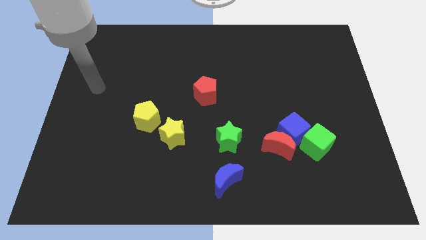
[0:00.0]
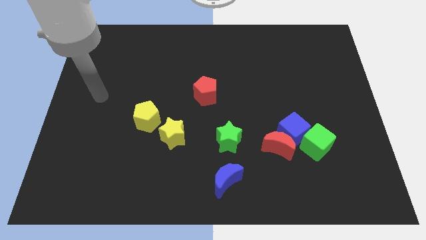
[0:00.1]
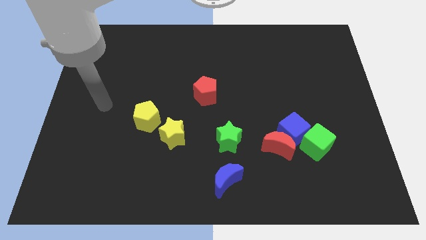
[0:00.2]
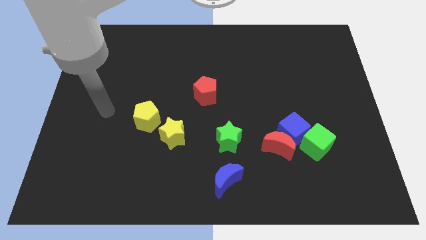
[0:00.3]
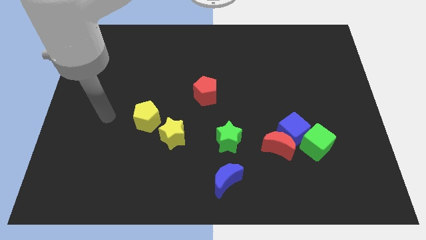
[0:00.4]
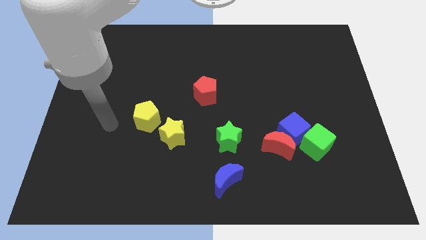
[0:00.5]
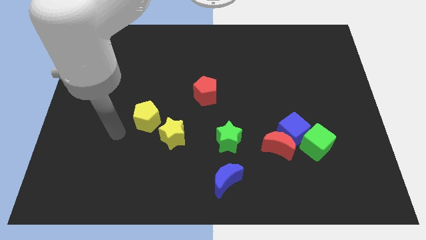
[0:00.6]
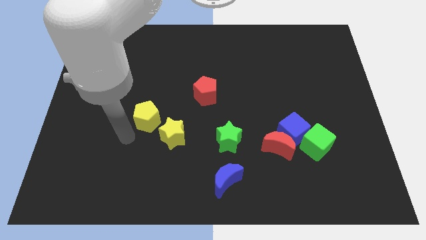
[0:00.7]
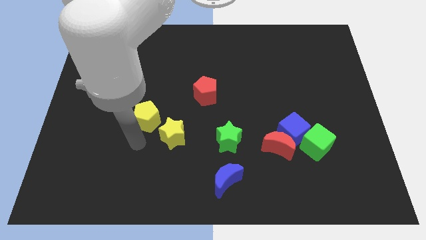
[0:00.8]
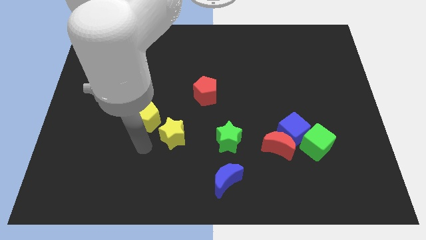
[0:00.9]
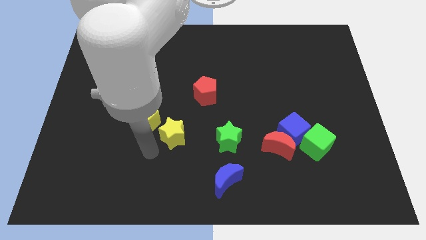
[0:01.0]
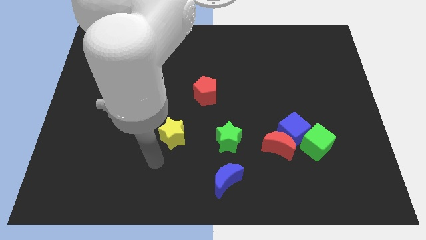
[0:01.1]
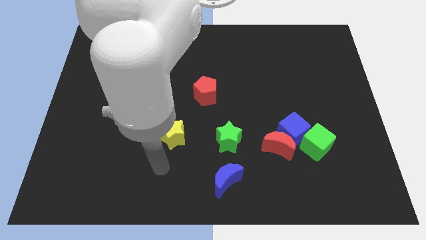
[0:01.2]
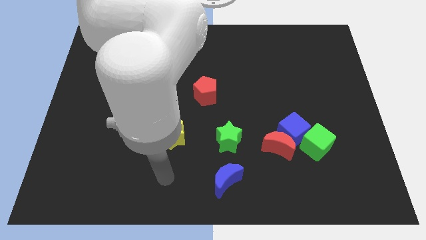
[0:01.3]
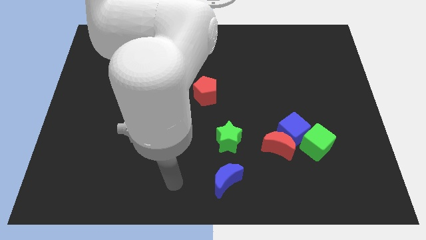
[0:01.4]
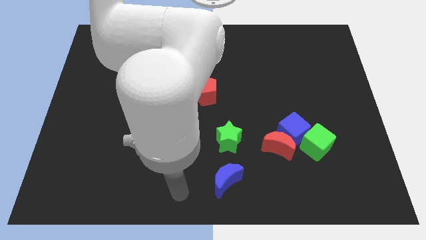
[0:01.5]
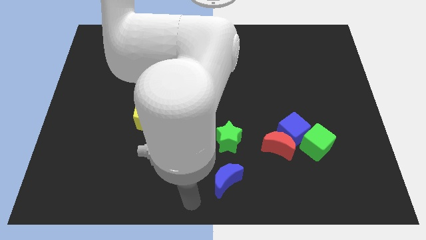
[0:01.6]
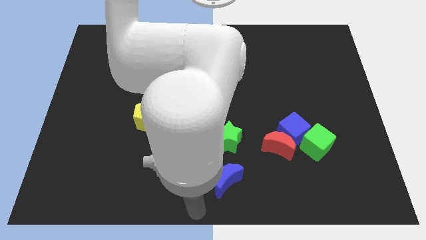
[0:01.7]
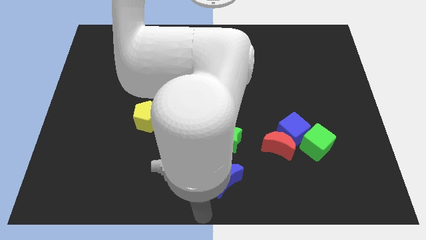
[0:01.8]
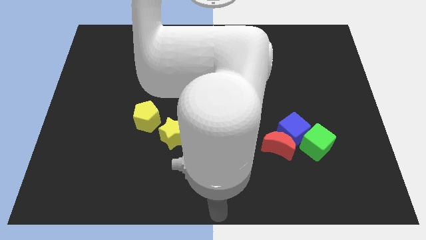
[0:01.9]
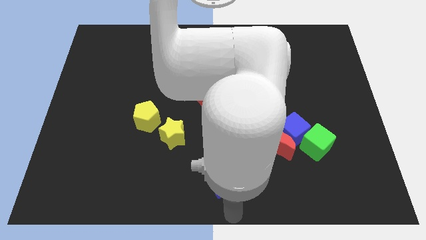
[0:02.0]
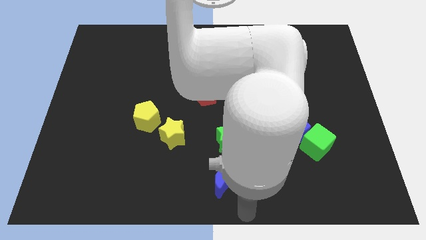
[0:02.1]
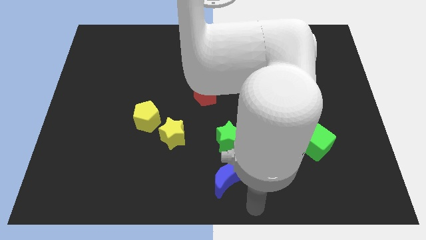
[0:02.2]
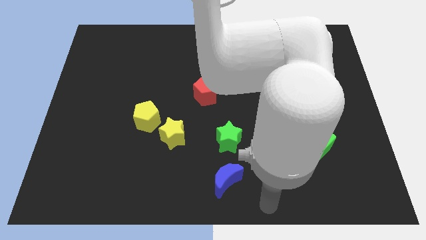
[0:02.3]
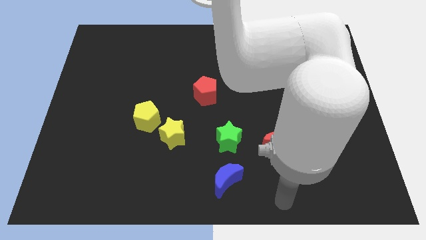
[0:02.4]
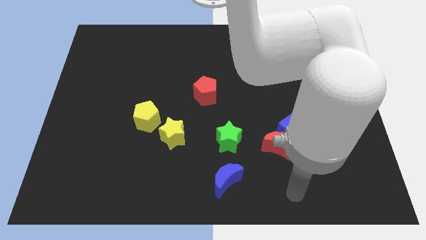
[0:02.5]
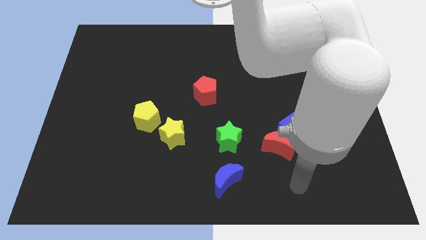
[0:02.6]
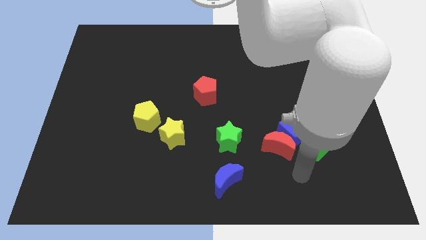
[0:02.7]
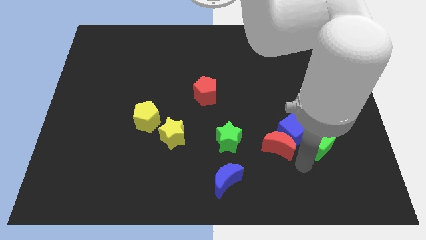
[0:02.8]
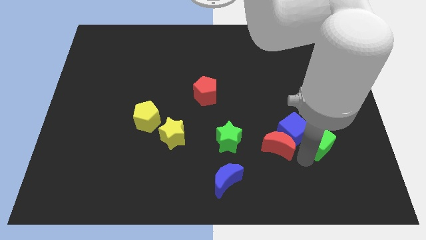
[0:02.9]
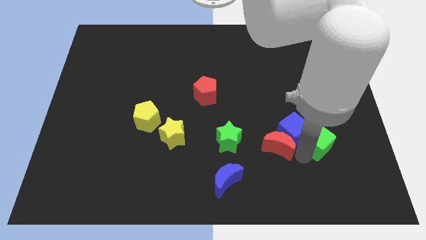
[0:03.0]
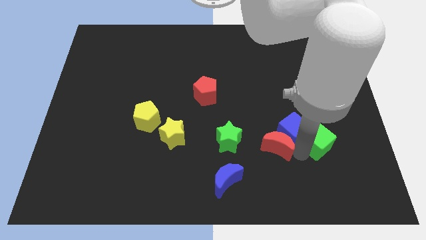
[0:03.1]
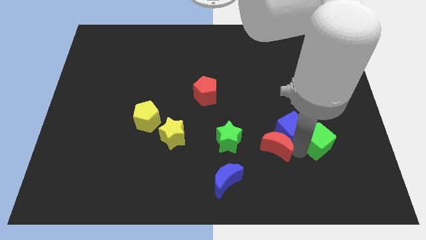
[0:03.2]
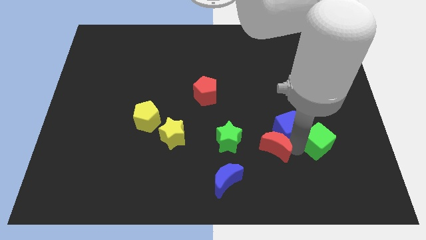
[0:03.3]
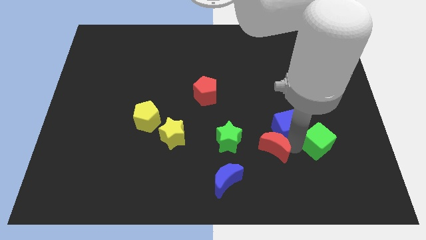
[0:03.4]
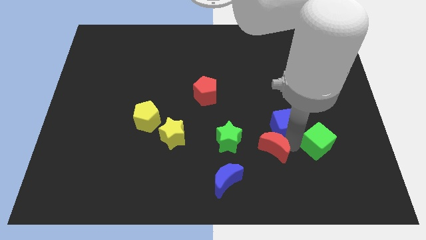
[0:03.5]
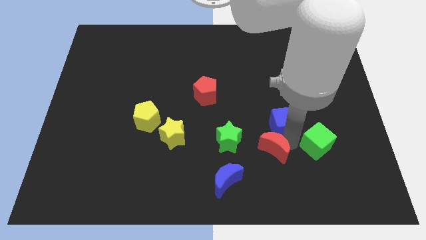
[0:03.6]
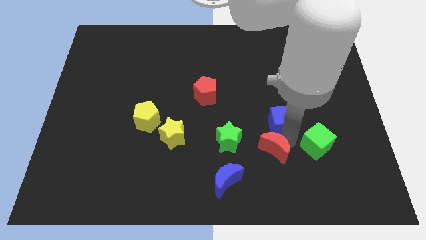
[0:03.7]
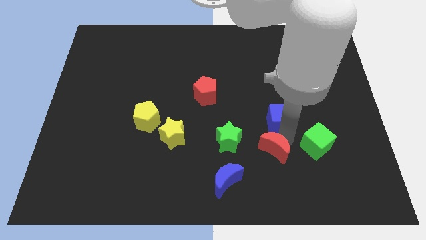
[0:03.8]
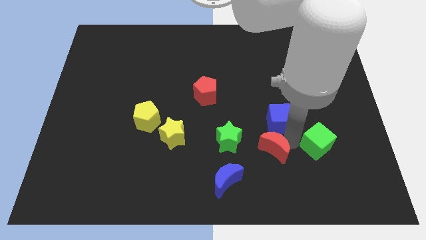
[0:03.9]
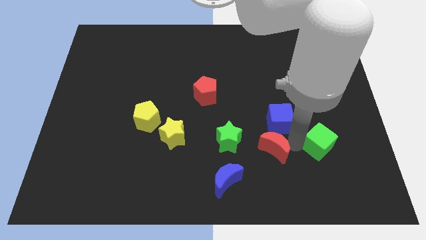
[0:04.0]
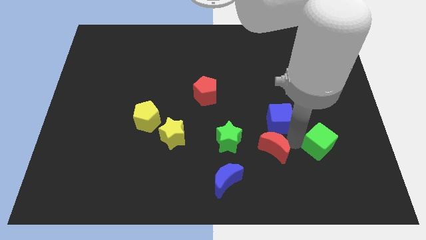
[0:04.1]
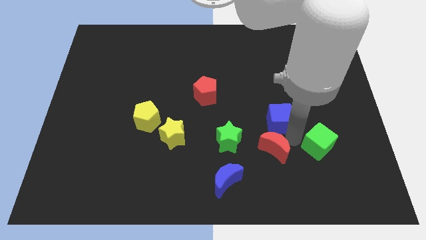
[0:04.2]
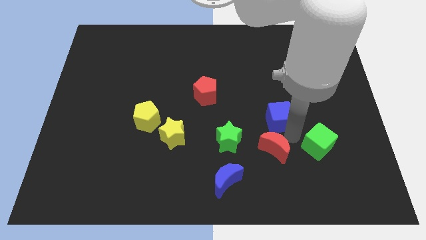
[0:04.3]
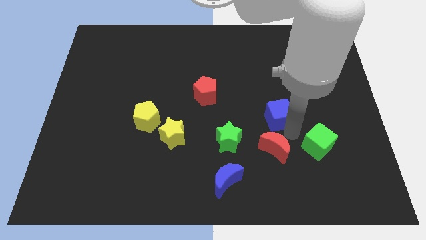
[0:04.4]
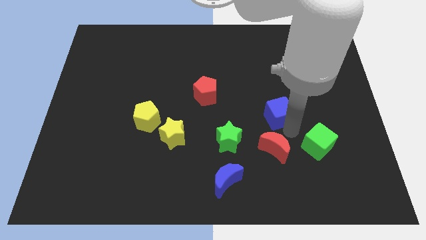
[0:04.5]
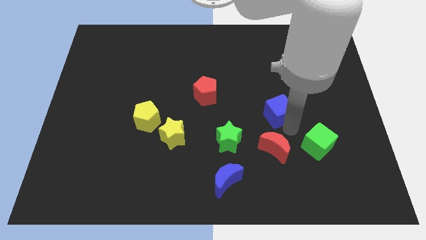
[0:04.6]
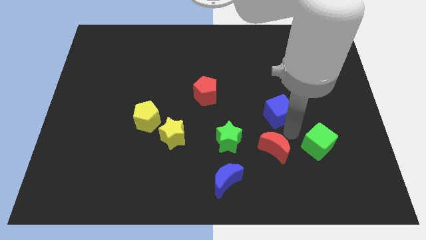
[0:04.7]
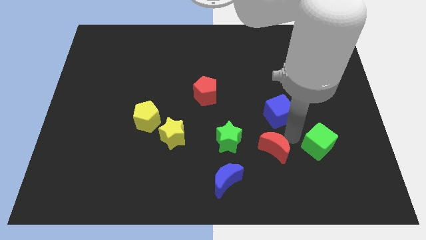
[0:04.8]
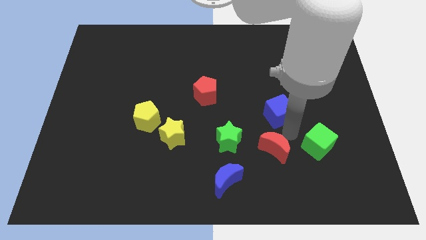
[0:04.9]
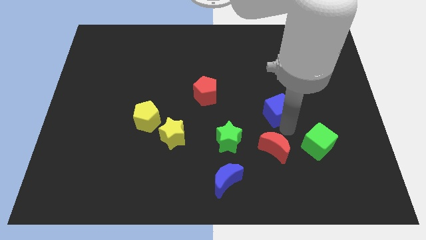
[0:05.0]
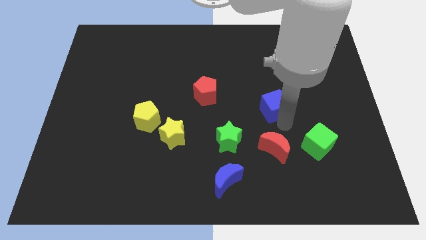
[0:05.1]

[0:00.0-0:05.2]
move the blue cube away from the red moon and green cube

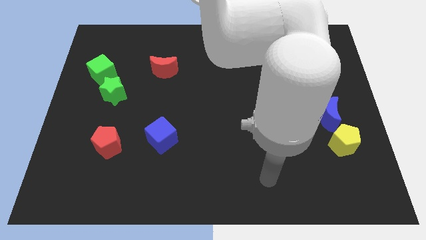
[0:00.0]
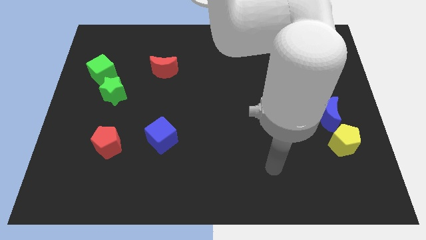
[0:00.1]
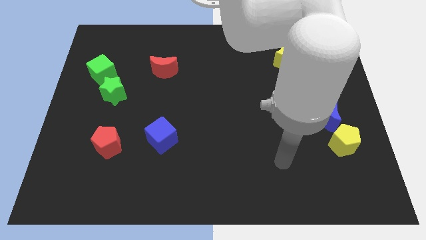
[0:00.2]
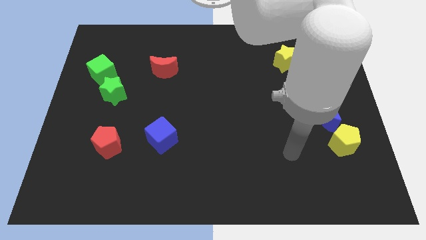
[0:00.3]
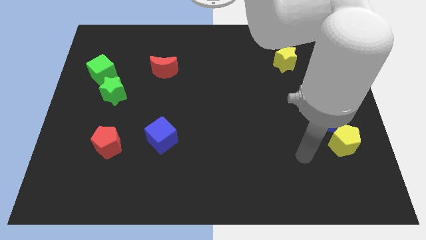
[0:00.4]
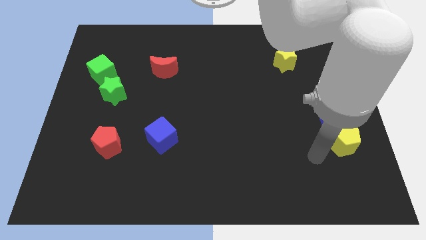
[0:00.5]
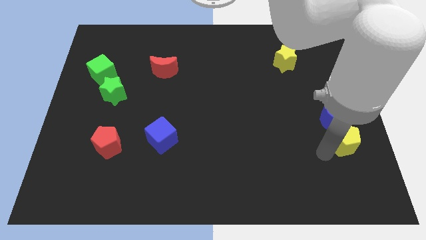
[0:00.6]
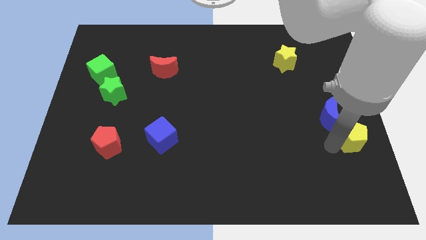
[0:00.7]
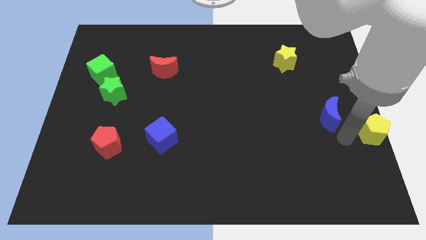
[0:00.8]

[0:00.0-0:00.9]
pull the blue moon apart from the yellow pentagon

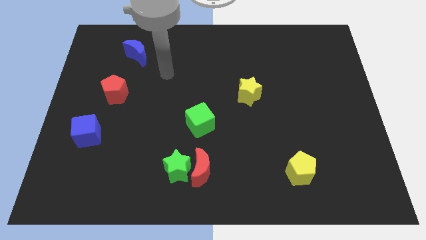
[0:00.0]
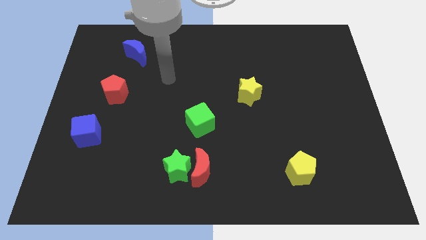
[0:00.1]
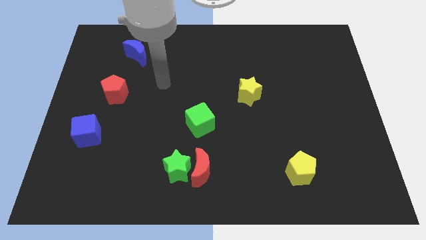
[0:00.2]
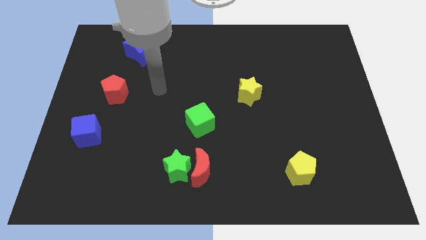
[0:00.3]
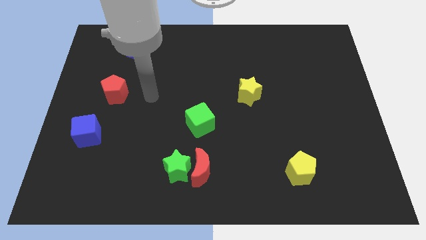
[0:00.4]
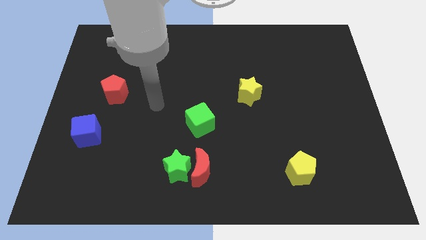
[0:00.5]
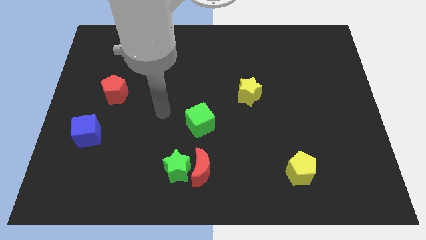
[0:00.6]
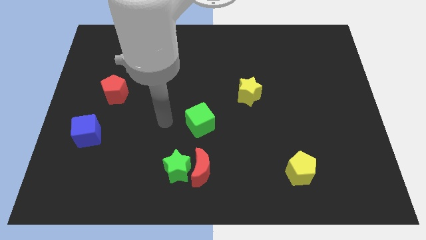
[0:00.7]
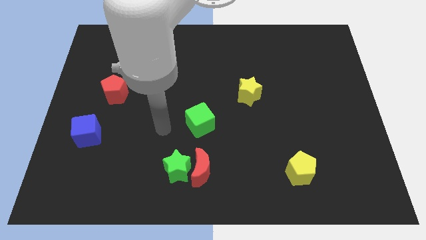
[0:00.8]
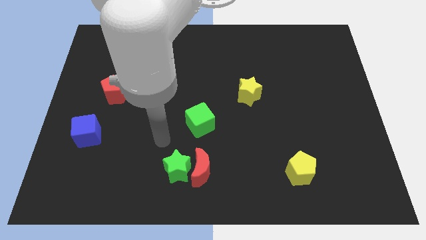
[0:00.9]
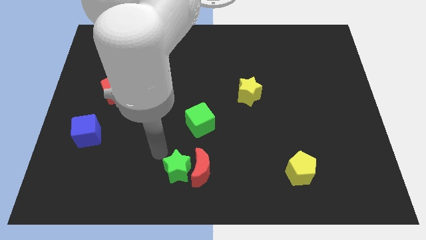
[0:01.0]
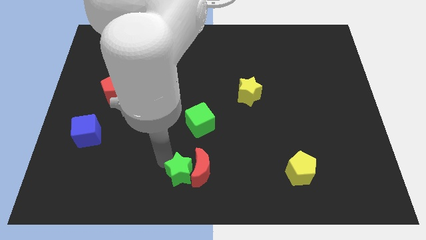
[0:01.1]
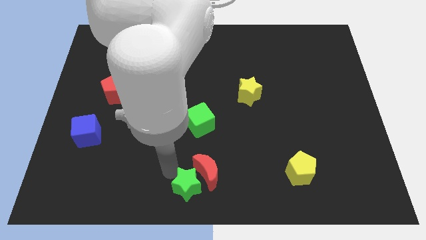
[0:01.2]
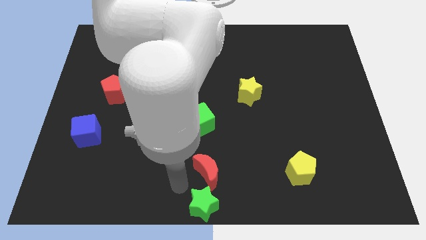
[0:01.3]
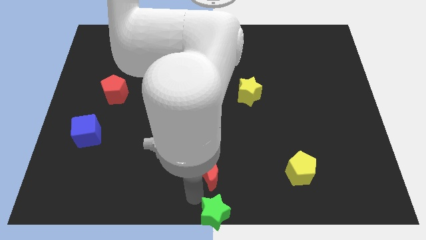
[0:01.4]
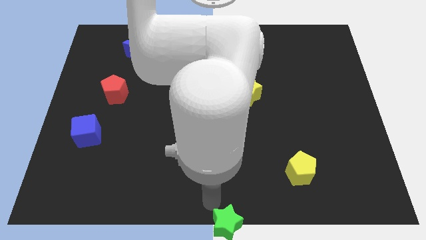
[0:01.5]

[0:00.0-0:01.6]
move the red moon away from the green star

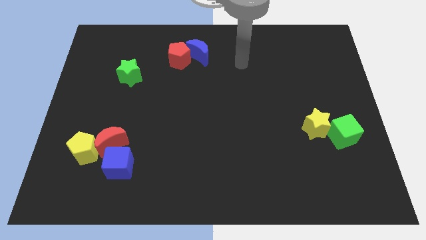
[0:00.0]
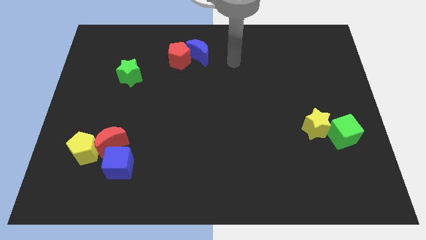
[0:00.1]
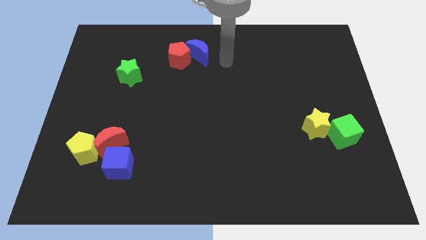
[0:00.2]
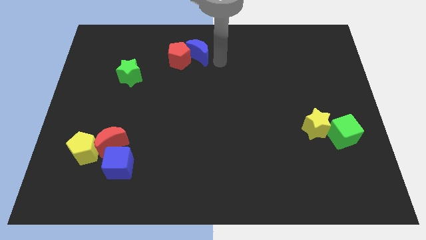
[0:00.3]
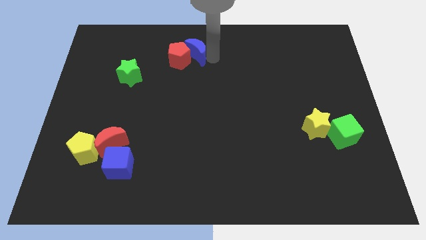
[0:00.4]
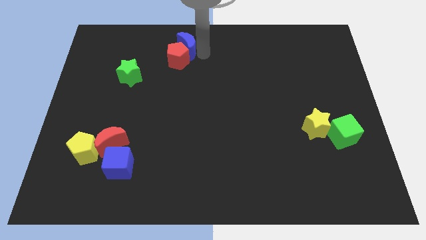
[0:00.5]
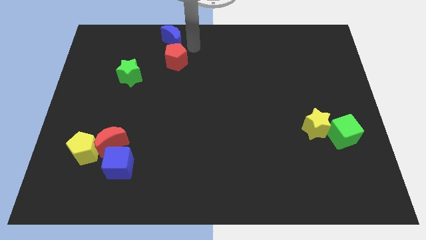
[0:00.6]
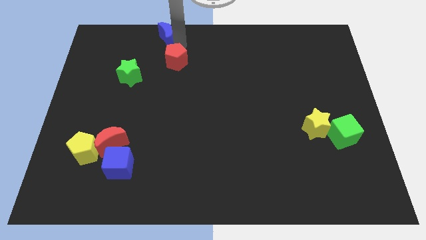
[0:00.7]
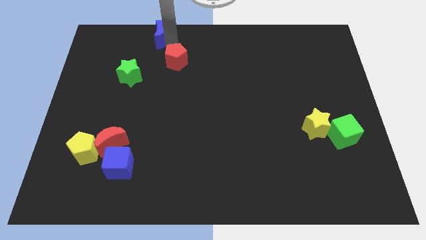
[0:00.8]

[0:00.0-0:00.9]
pull the red pentagon apart from the blue moon

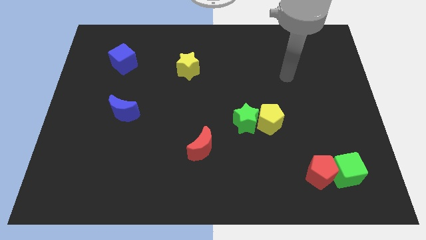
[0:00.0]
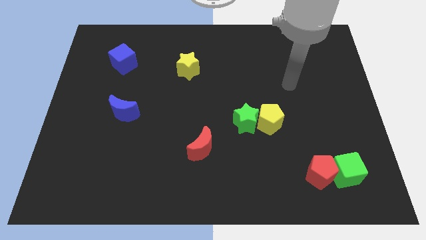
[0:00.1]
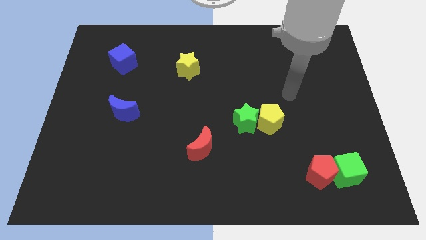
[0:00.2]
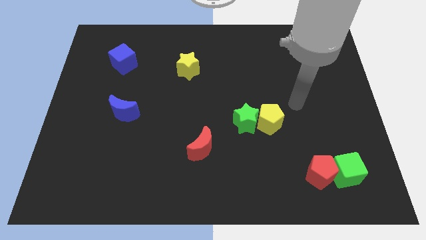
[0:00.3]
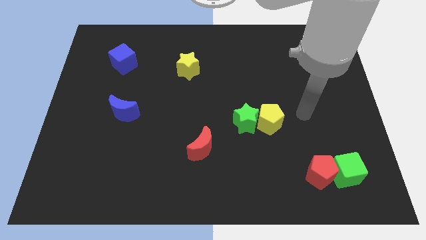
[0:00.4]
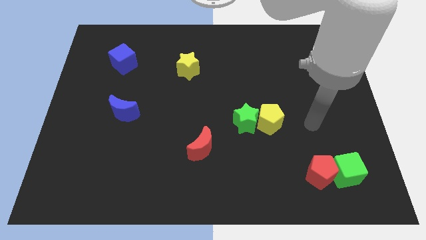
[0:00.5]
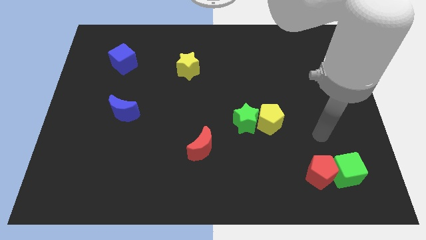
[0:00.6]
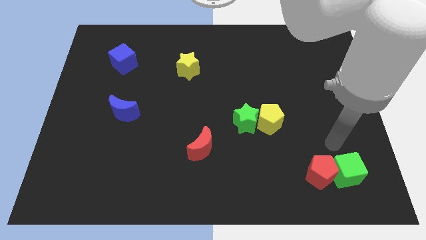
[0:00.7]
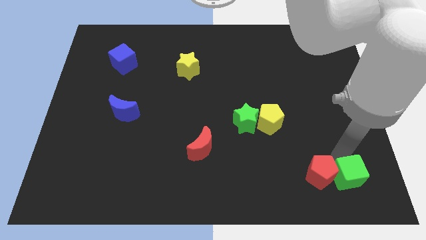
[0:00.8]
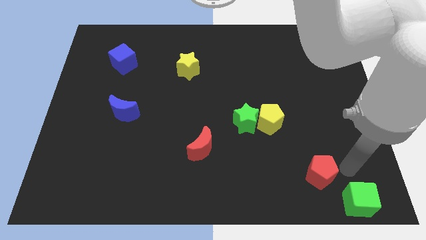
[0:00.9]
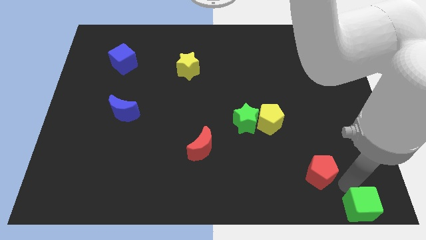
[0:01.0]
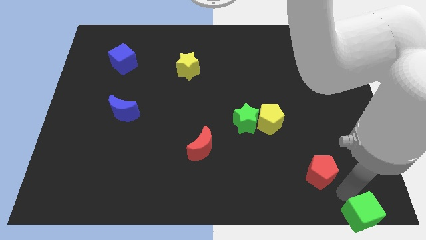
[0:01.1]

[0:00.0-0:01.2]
separate the red pentagon from the green cube
